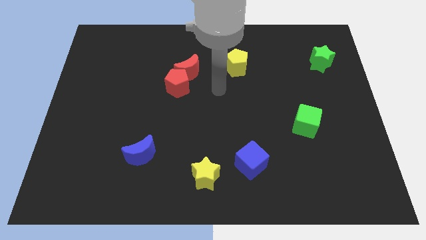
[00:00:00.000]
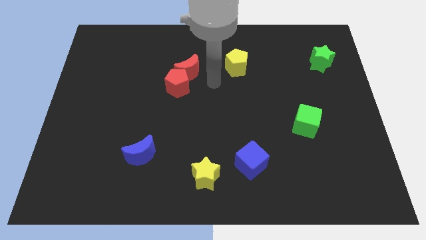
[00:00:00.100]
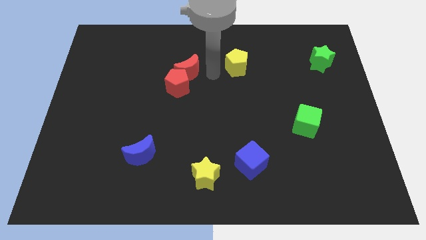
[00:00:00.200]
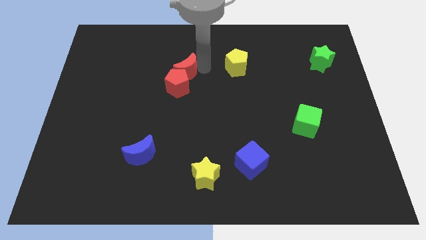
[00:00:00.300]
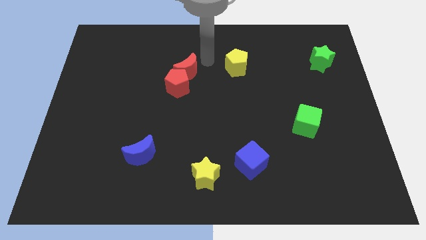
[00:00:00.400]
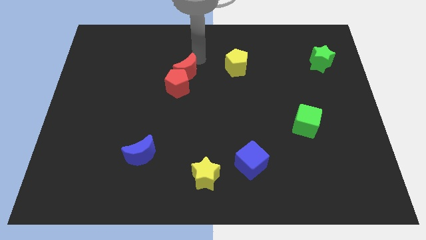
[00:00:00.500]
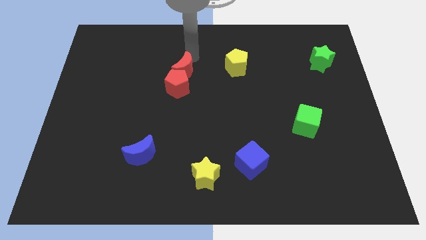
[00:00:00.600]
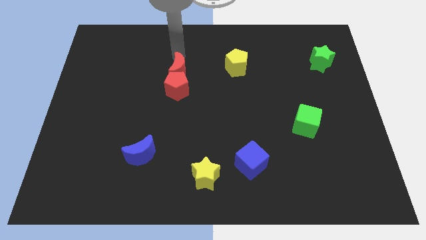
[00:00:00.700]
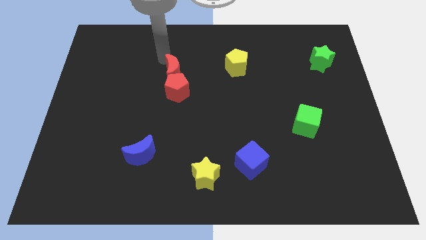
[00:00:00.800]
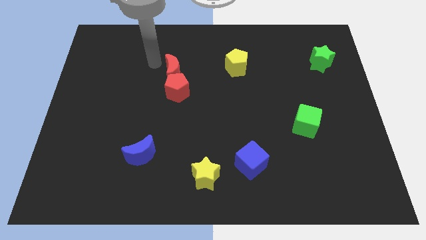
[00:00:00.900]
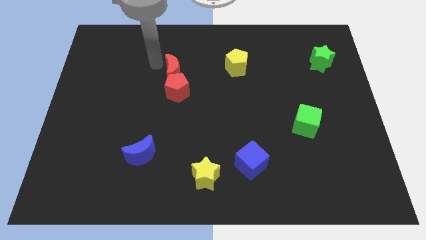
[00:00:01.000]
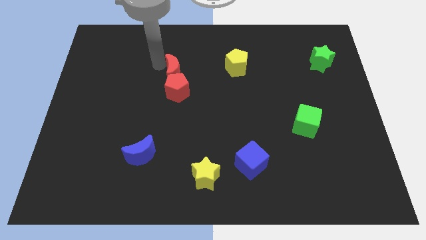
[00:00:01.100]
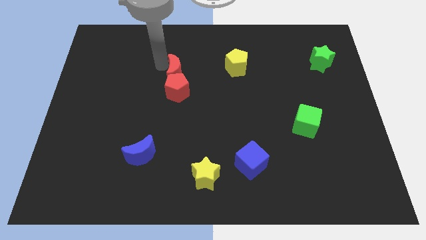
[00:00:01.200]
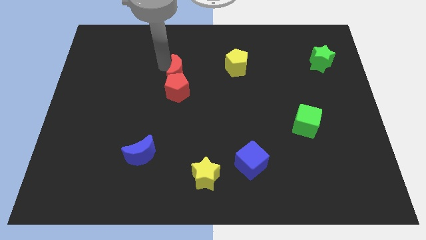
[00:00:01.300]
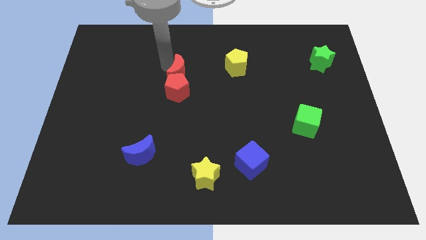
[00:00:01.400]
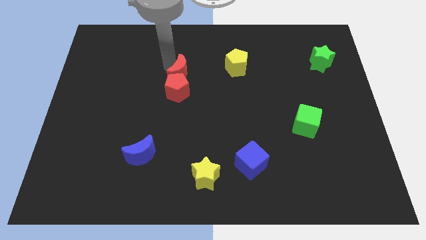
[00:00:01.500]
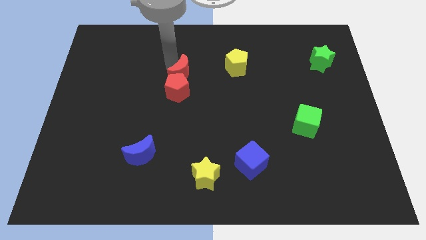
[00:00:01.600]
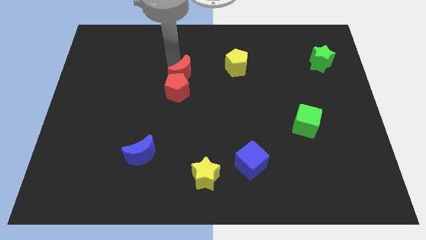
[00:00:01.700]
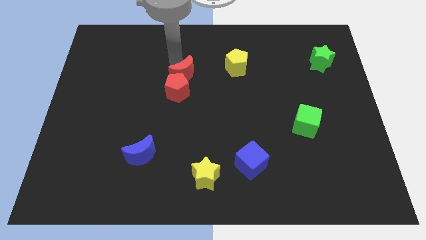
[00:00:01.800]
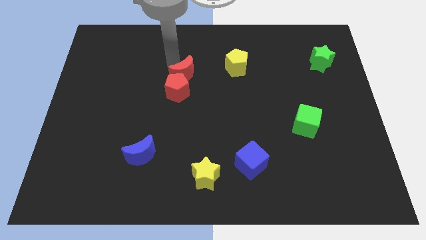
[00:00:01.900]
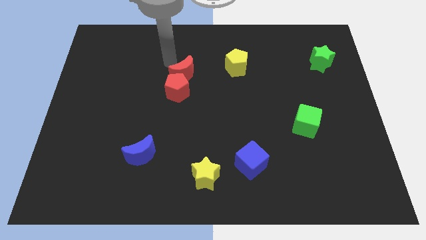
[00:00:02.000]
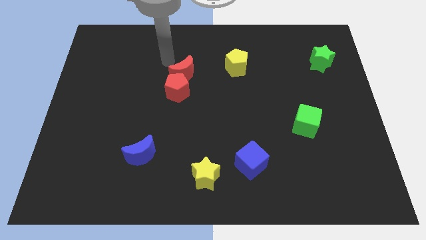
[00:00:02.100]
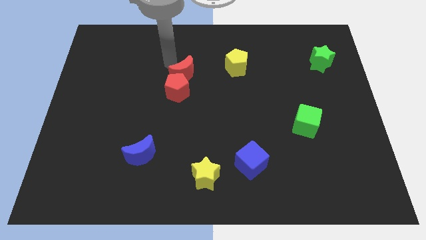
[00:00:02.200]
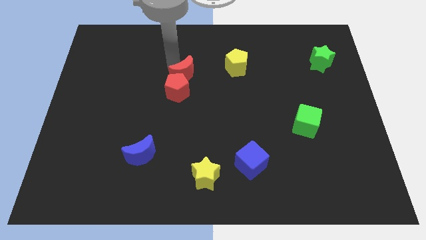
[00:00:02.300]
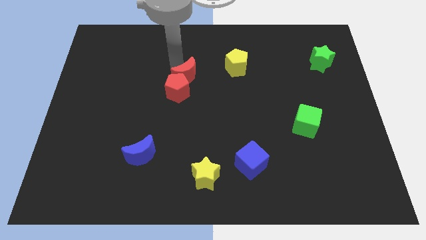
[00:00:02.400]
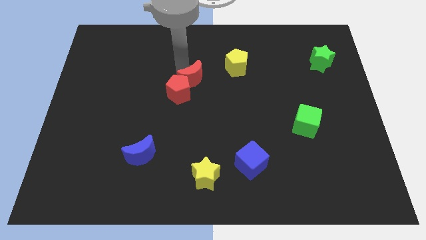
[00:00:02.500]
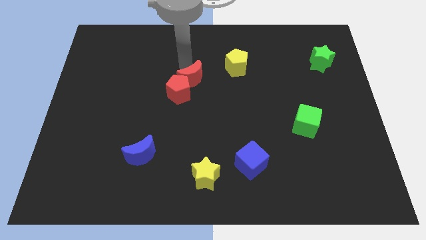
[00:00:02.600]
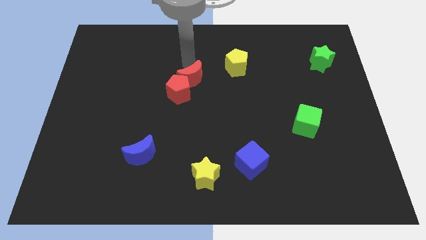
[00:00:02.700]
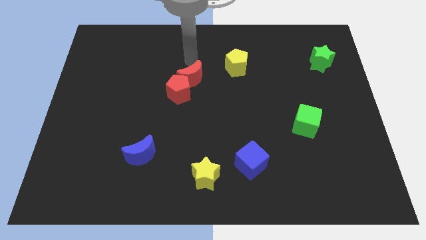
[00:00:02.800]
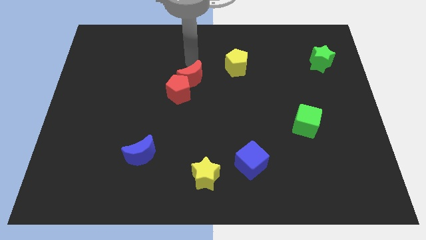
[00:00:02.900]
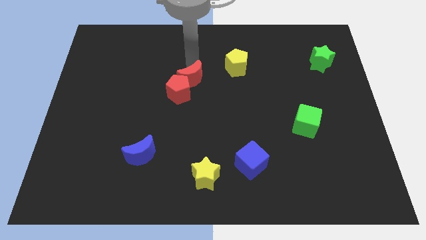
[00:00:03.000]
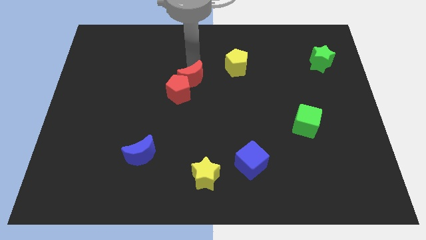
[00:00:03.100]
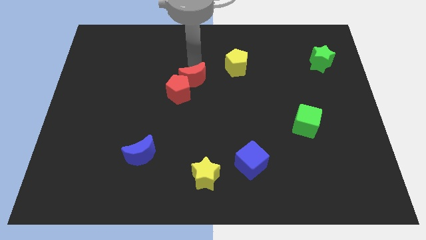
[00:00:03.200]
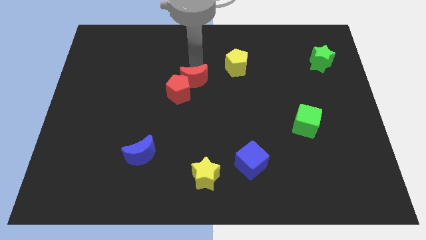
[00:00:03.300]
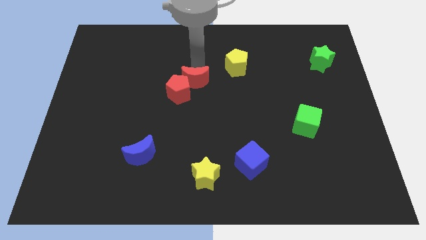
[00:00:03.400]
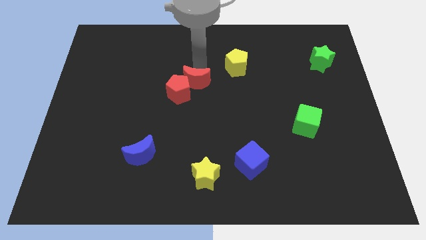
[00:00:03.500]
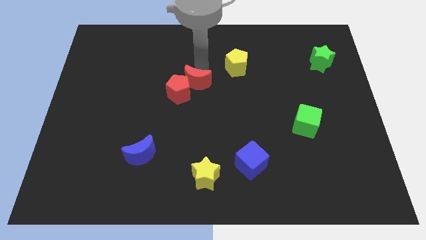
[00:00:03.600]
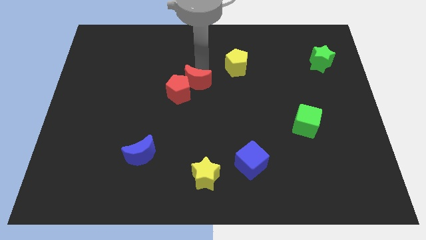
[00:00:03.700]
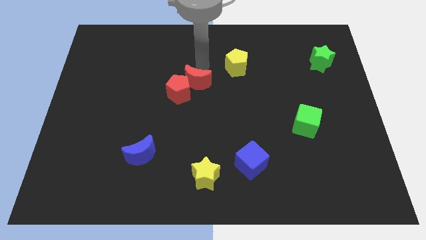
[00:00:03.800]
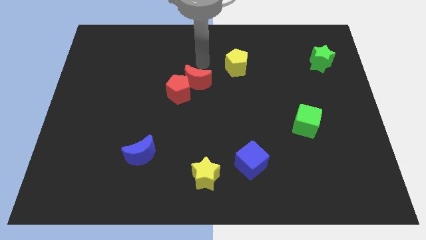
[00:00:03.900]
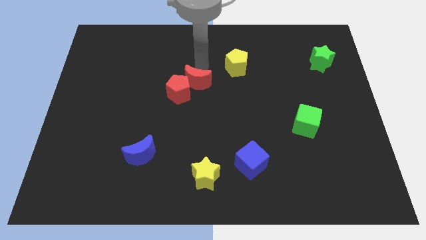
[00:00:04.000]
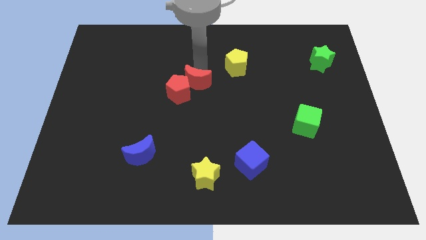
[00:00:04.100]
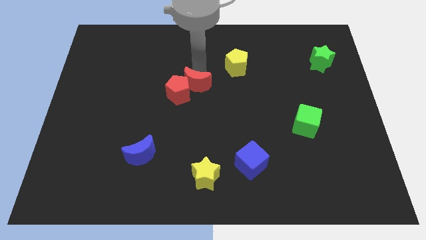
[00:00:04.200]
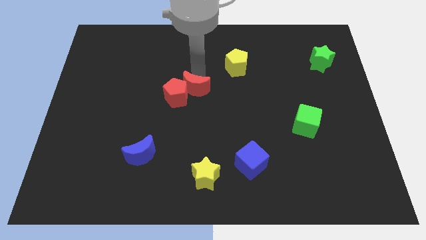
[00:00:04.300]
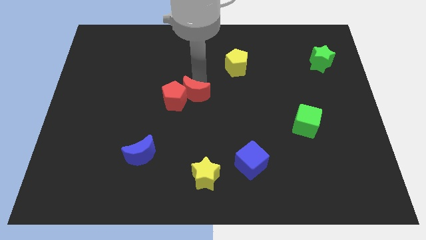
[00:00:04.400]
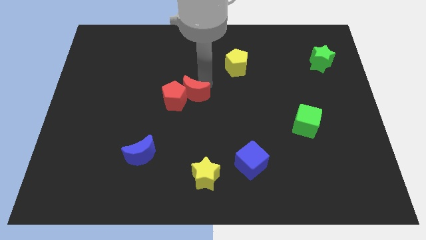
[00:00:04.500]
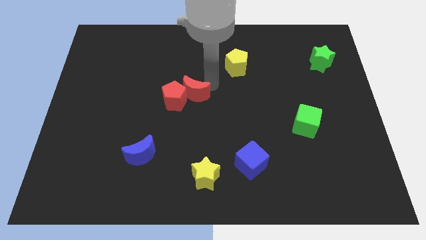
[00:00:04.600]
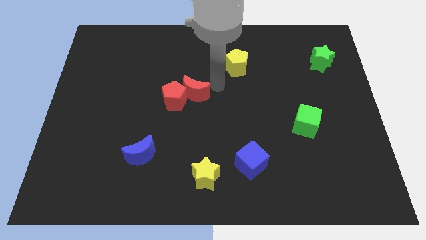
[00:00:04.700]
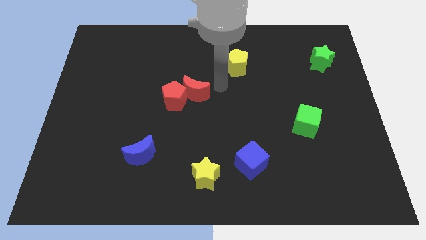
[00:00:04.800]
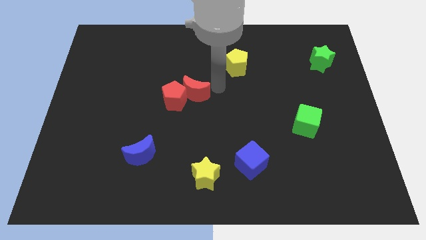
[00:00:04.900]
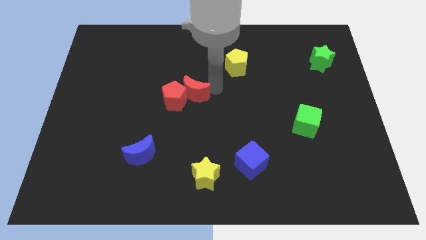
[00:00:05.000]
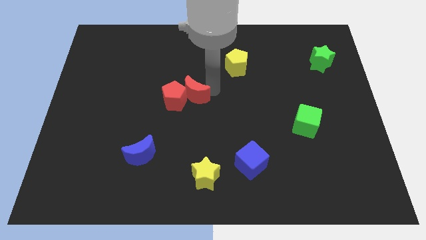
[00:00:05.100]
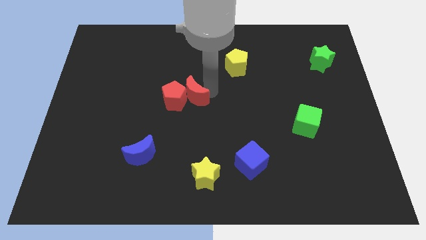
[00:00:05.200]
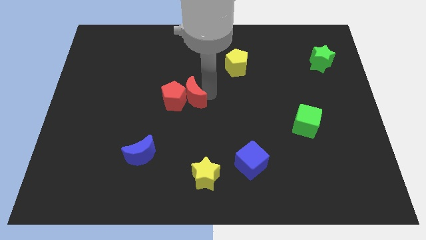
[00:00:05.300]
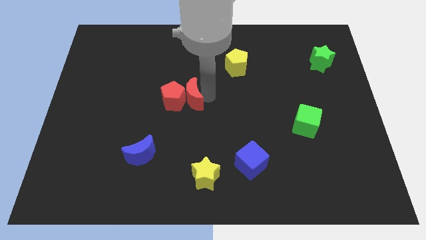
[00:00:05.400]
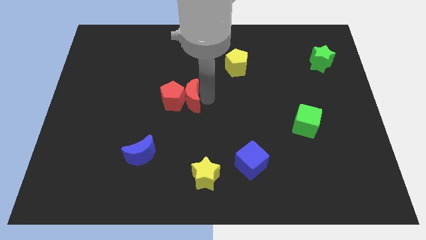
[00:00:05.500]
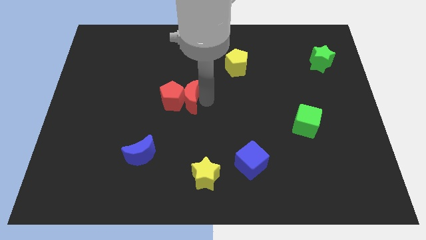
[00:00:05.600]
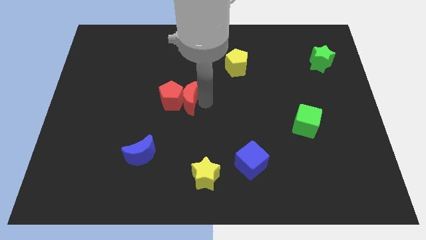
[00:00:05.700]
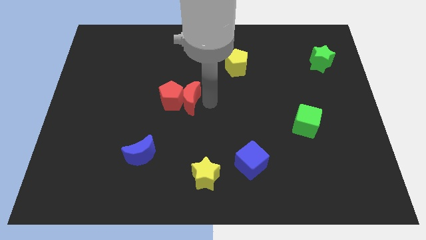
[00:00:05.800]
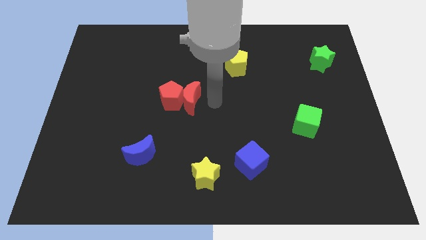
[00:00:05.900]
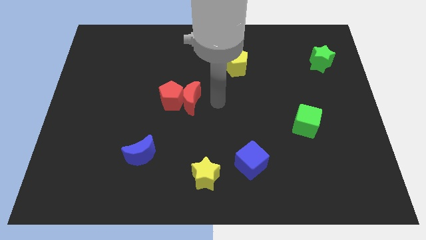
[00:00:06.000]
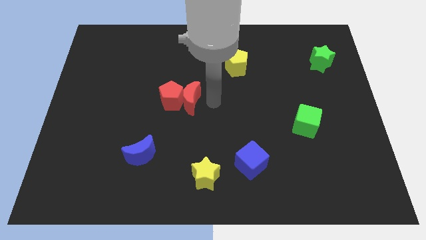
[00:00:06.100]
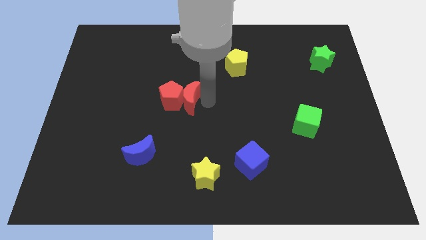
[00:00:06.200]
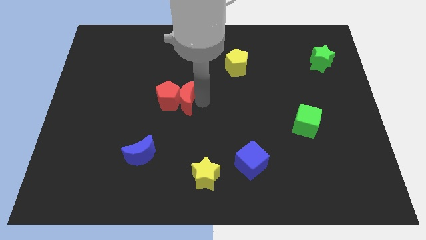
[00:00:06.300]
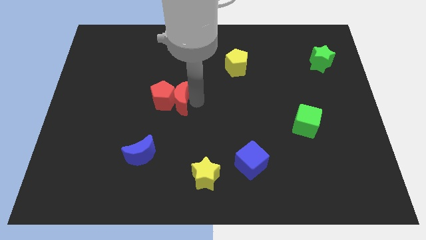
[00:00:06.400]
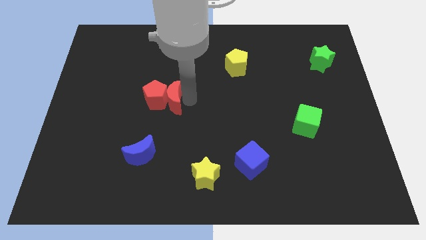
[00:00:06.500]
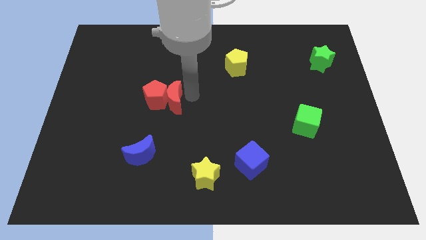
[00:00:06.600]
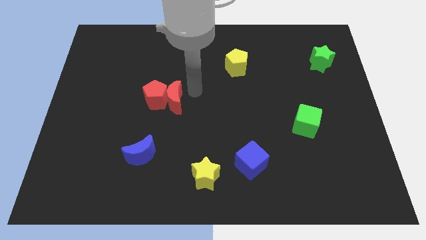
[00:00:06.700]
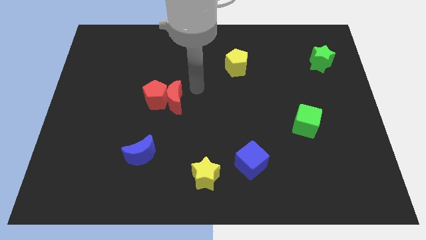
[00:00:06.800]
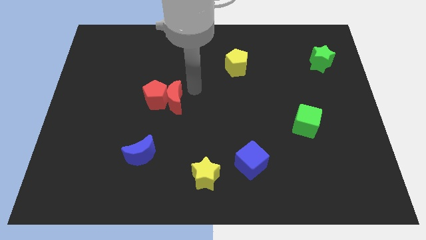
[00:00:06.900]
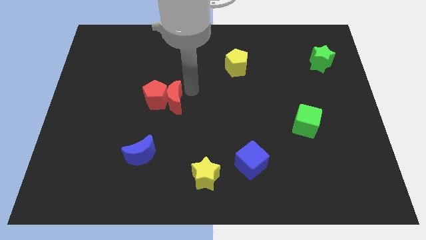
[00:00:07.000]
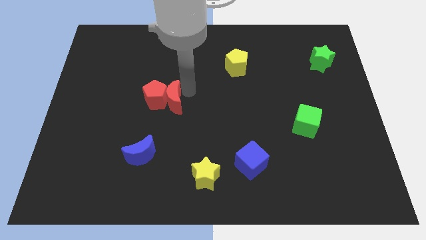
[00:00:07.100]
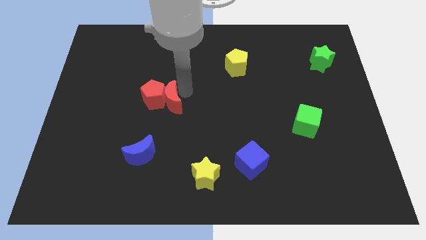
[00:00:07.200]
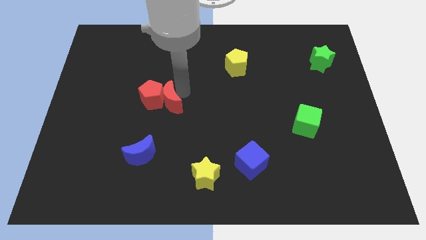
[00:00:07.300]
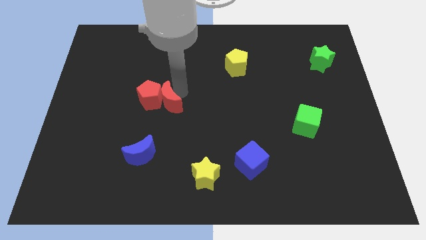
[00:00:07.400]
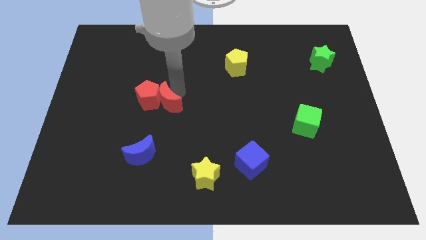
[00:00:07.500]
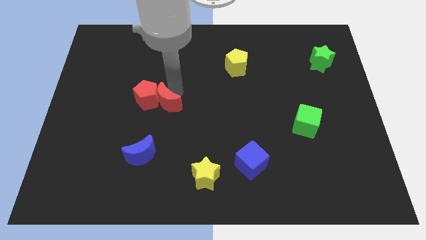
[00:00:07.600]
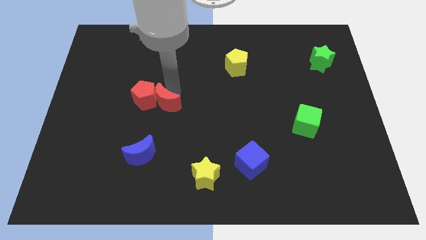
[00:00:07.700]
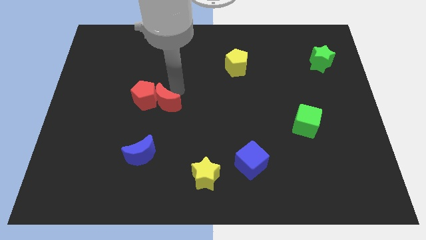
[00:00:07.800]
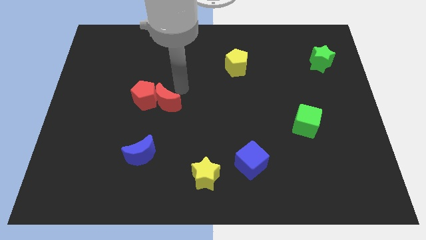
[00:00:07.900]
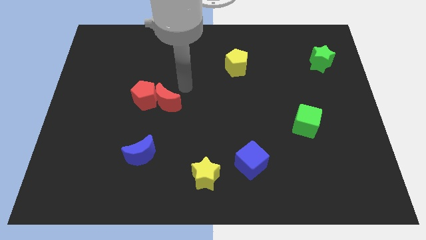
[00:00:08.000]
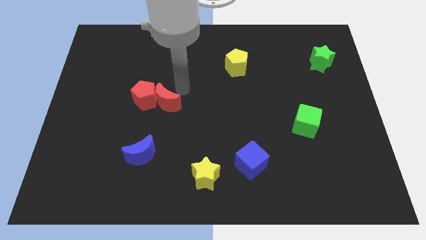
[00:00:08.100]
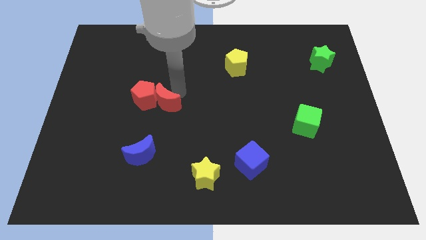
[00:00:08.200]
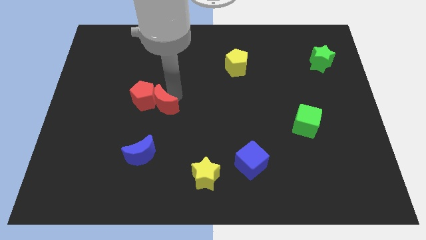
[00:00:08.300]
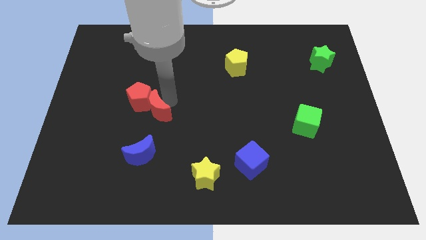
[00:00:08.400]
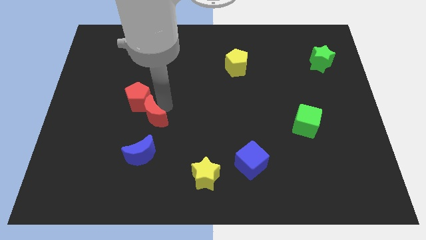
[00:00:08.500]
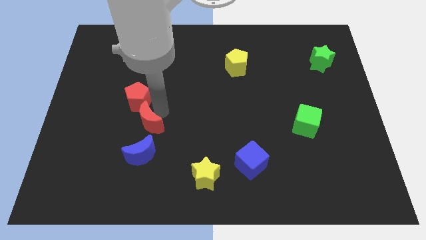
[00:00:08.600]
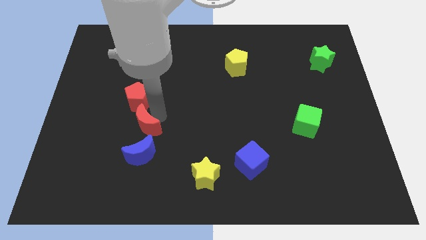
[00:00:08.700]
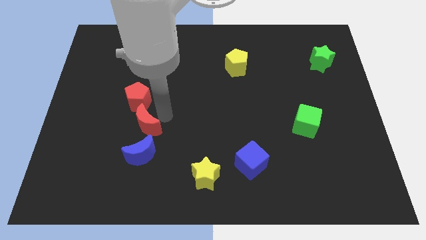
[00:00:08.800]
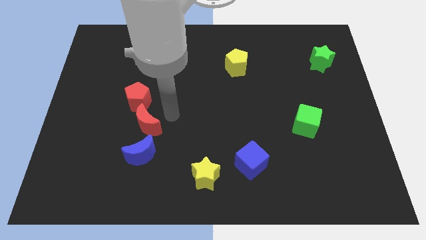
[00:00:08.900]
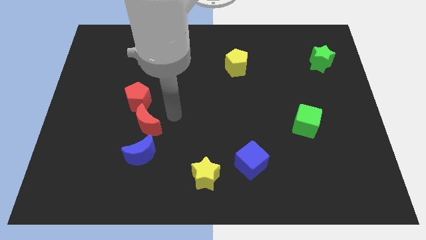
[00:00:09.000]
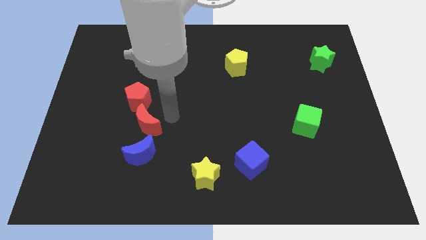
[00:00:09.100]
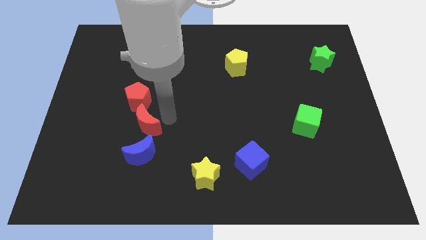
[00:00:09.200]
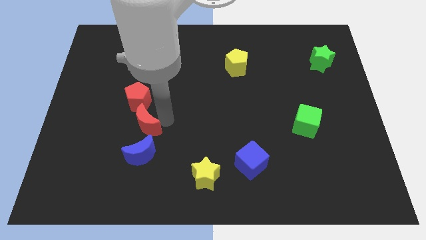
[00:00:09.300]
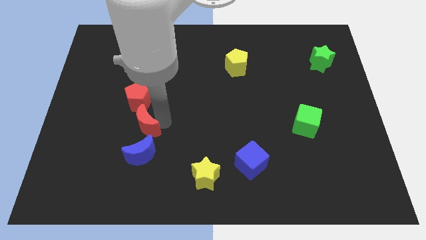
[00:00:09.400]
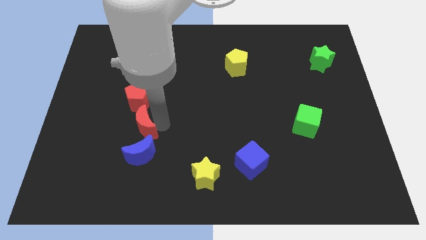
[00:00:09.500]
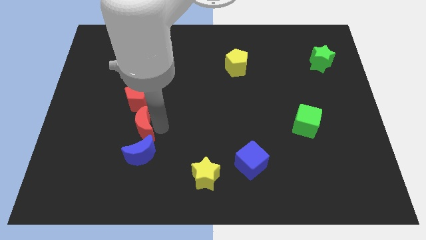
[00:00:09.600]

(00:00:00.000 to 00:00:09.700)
put the red moon to the top left side of the blue moon
